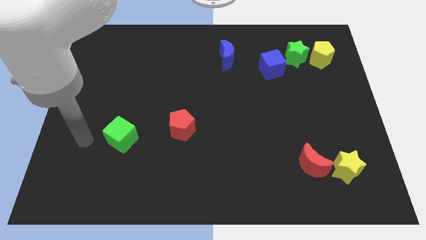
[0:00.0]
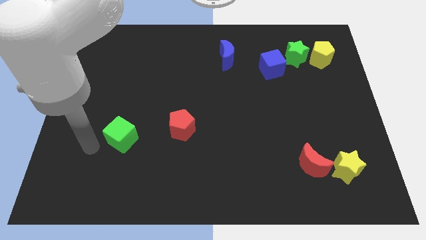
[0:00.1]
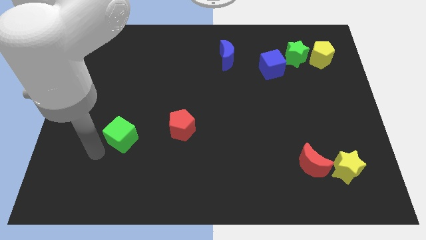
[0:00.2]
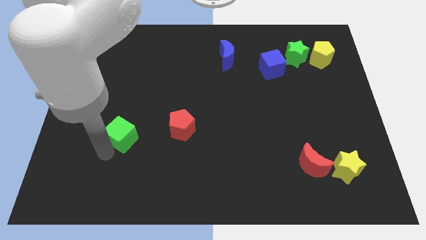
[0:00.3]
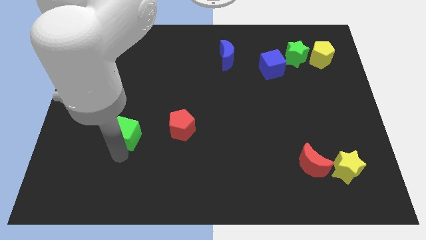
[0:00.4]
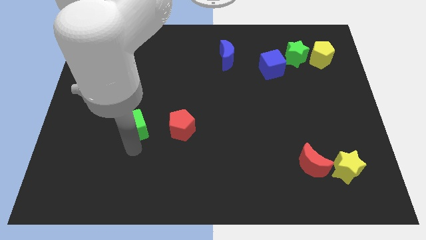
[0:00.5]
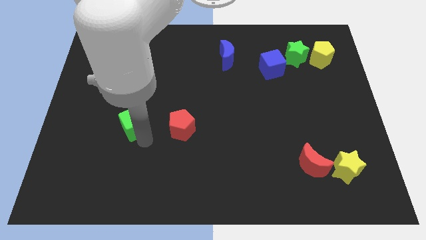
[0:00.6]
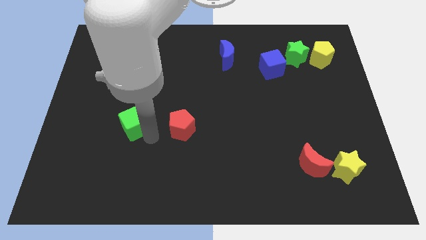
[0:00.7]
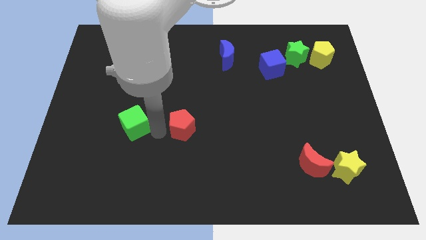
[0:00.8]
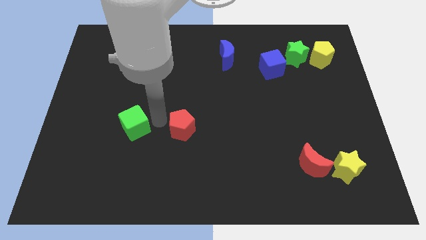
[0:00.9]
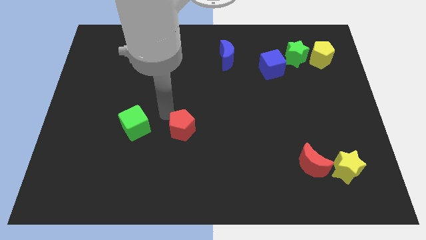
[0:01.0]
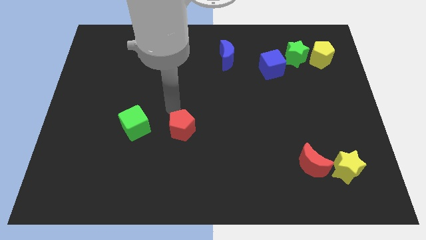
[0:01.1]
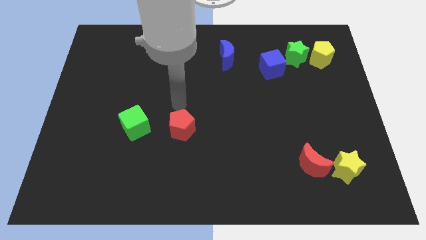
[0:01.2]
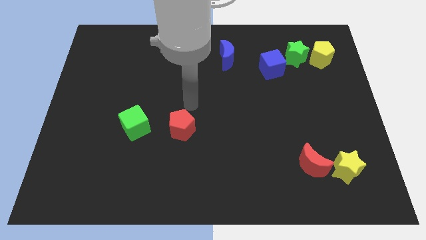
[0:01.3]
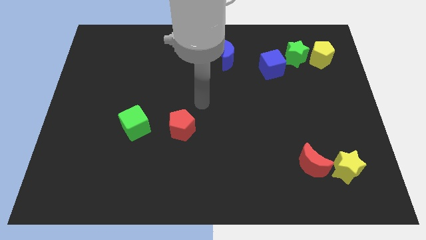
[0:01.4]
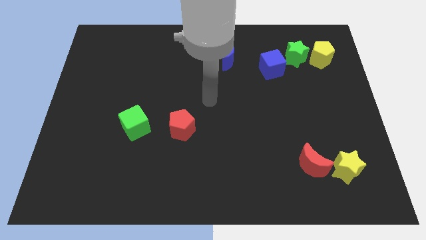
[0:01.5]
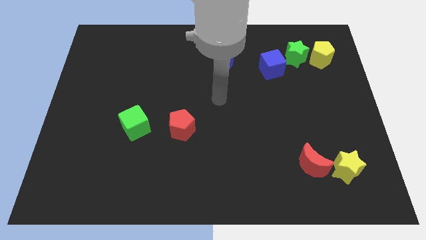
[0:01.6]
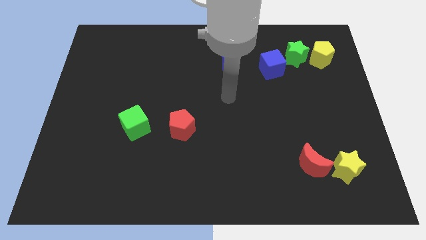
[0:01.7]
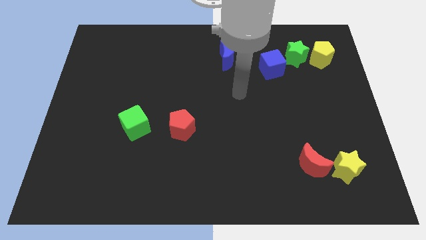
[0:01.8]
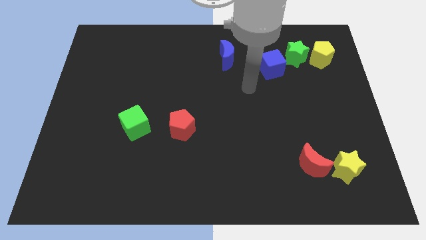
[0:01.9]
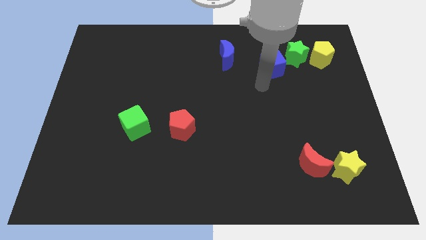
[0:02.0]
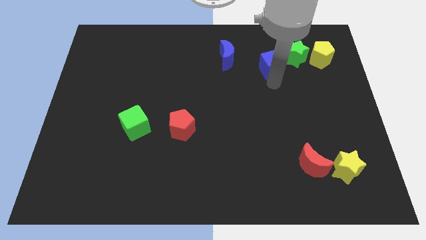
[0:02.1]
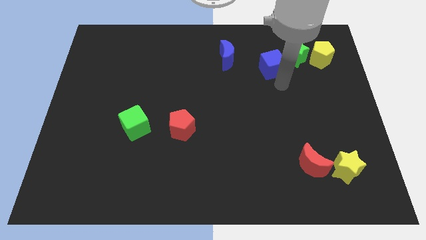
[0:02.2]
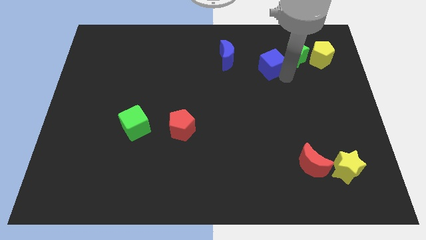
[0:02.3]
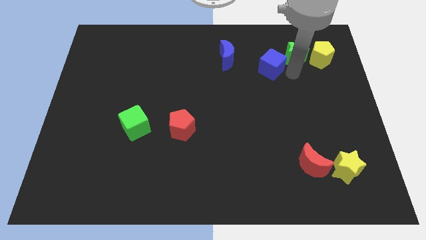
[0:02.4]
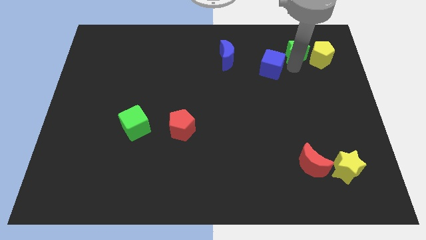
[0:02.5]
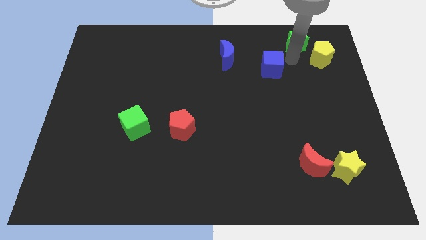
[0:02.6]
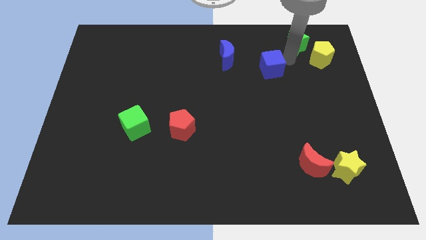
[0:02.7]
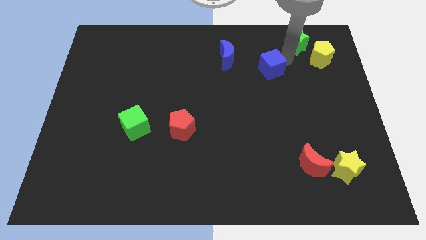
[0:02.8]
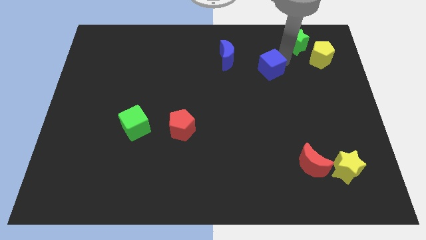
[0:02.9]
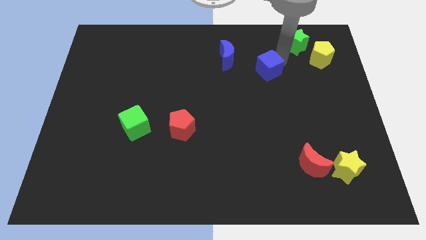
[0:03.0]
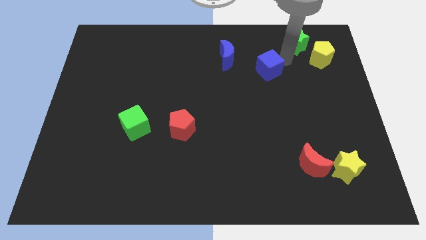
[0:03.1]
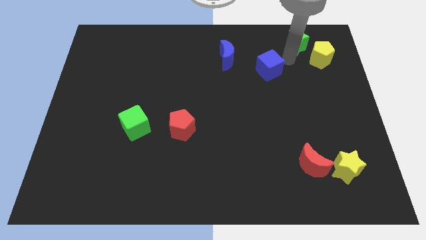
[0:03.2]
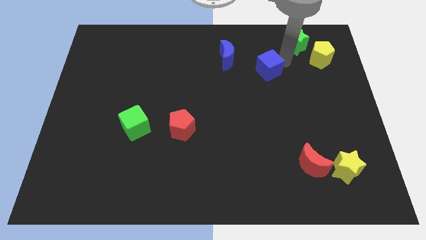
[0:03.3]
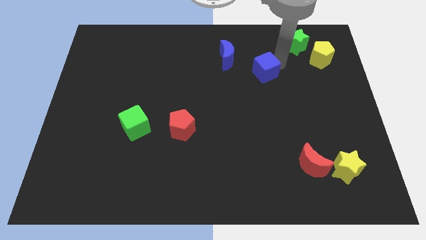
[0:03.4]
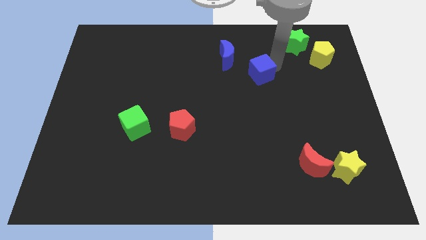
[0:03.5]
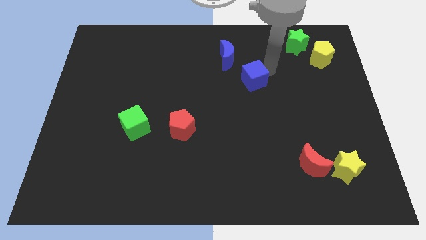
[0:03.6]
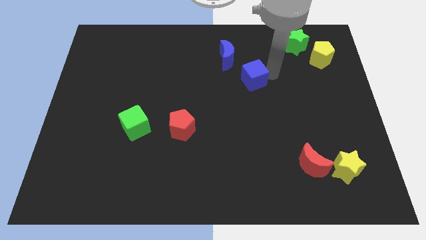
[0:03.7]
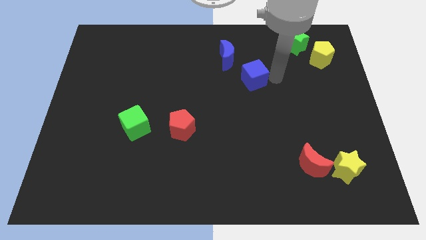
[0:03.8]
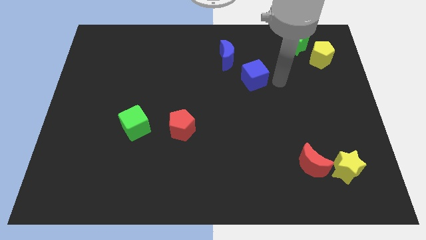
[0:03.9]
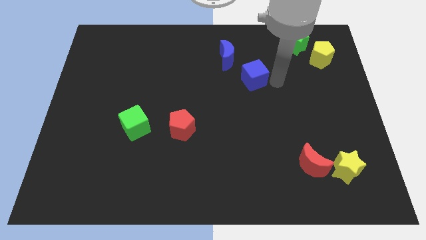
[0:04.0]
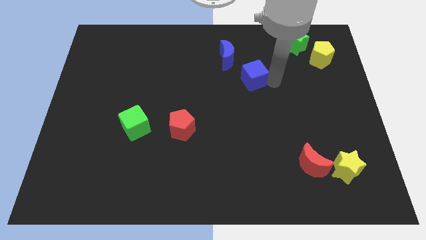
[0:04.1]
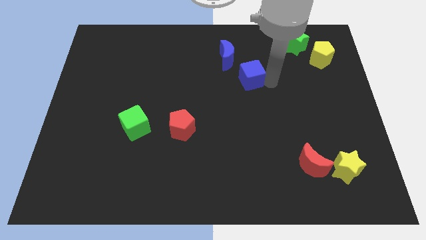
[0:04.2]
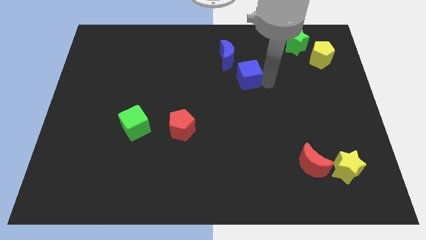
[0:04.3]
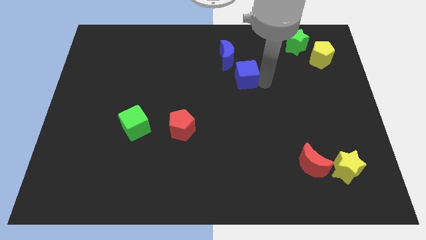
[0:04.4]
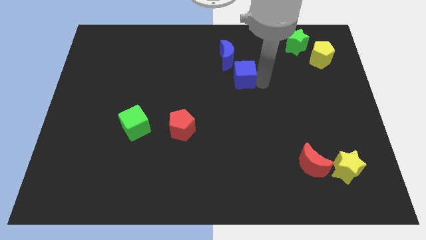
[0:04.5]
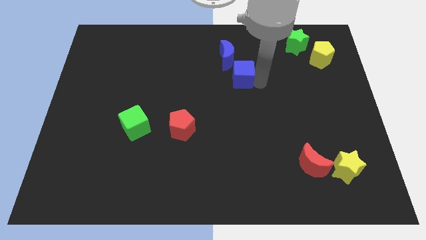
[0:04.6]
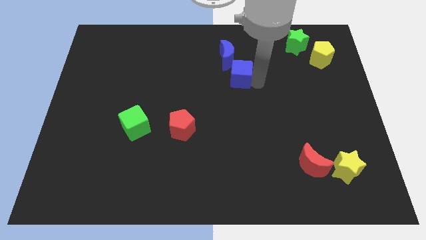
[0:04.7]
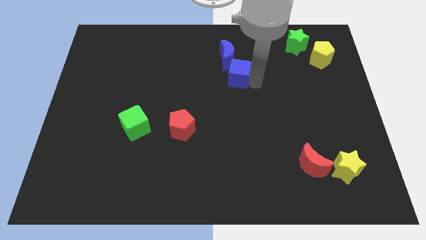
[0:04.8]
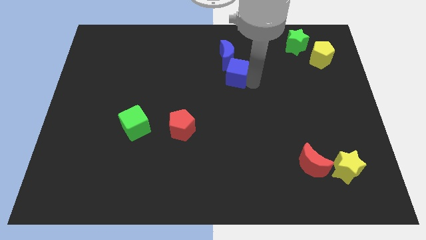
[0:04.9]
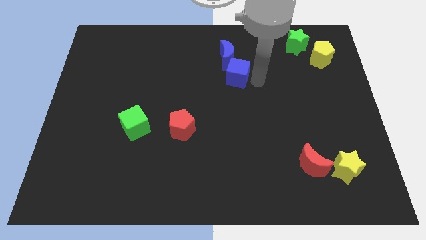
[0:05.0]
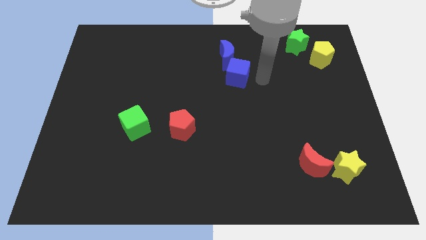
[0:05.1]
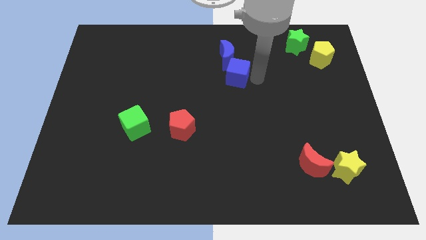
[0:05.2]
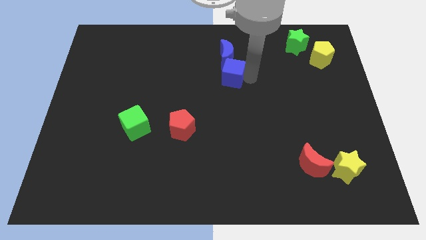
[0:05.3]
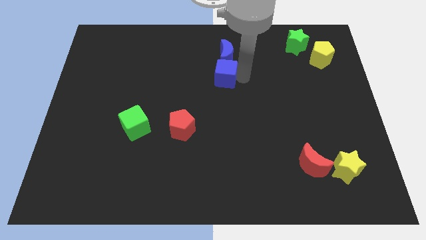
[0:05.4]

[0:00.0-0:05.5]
put the blue cube to the bottom left side of the blue moon

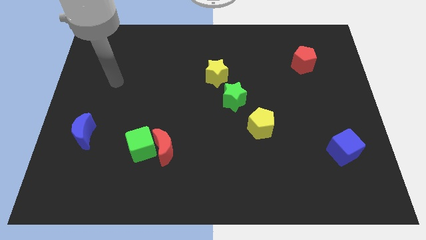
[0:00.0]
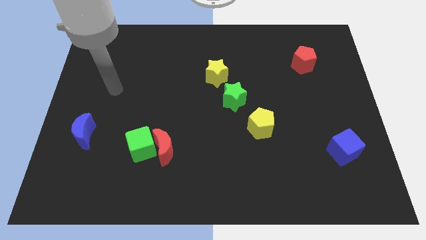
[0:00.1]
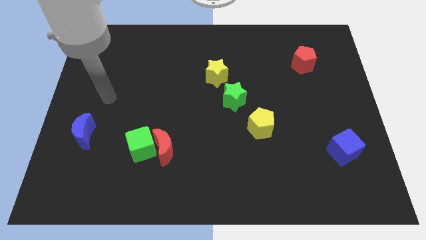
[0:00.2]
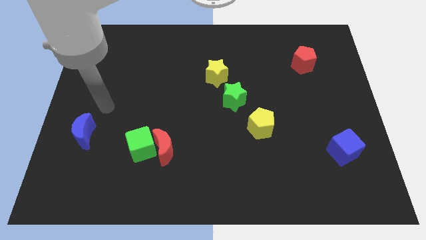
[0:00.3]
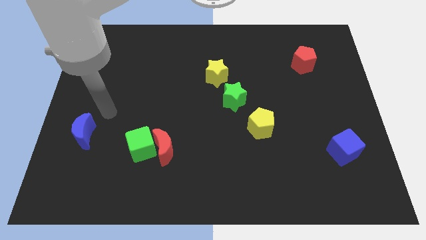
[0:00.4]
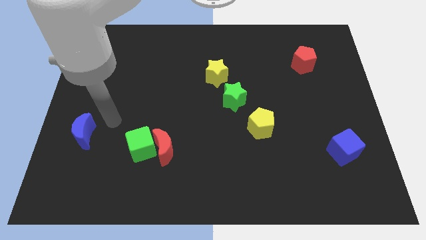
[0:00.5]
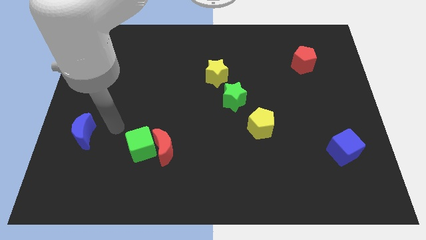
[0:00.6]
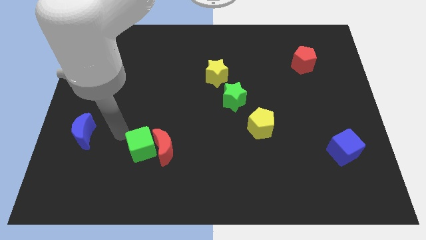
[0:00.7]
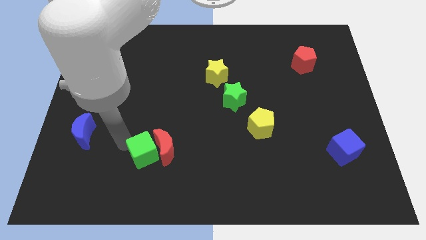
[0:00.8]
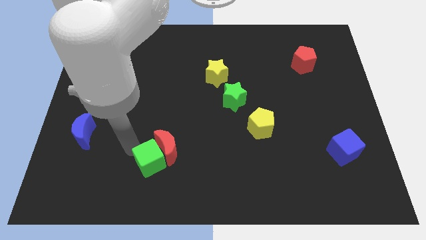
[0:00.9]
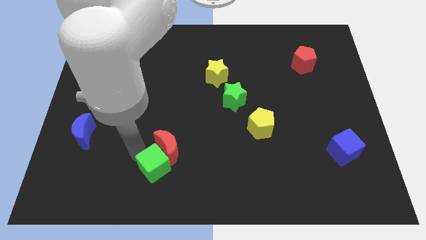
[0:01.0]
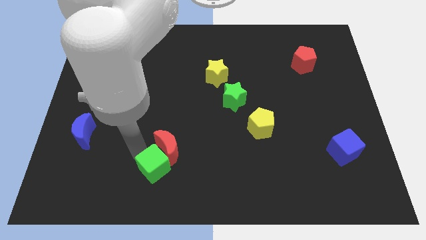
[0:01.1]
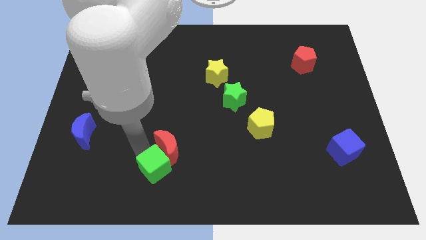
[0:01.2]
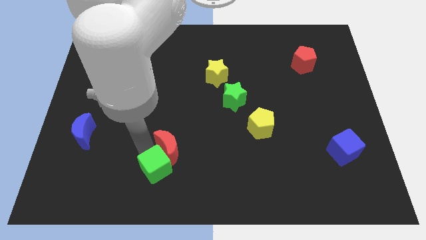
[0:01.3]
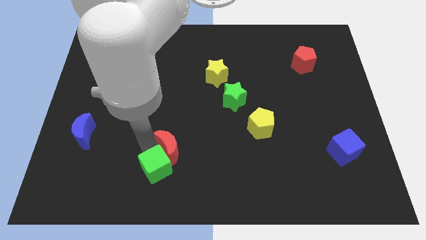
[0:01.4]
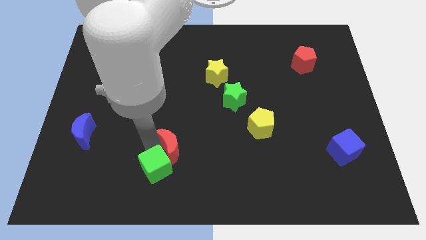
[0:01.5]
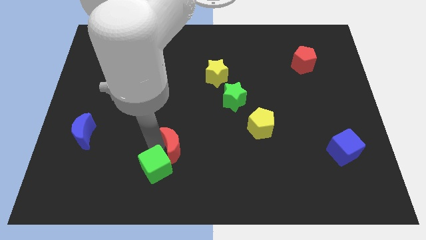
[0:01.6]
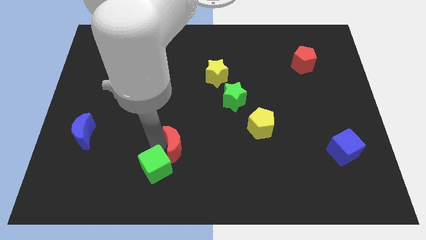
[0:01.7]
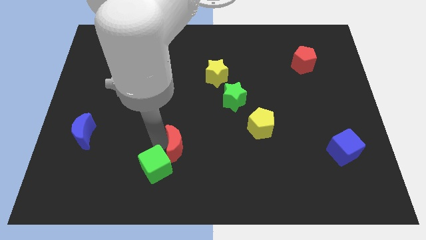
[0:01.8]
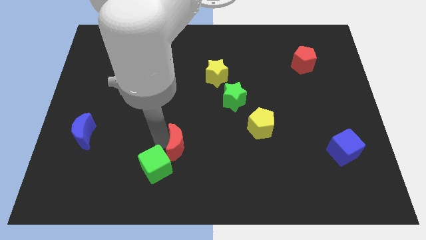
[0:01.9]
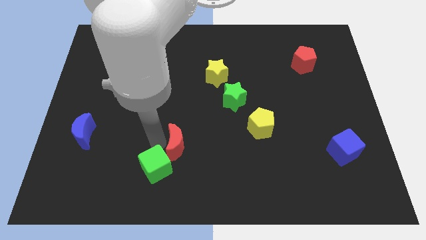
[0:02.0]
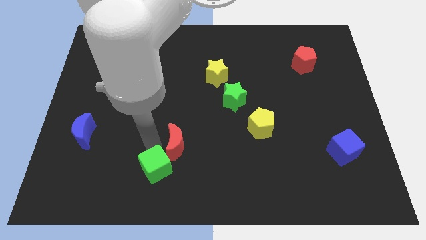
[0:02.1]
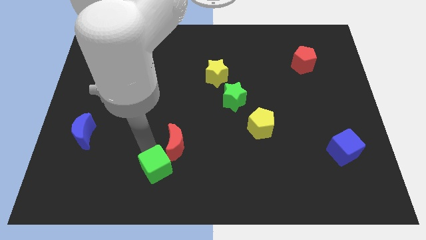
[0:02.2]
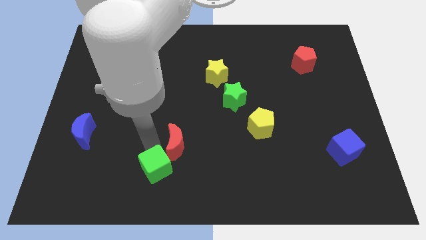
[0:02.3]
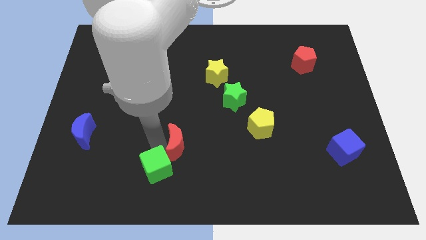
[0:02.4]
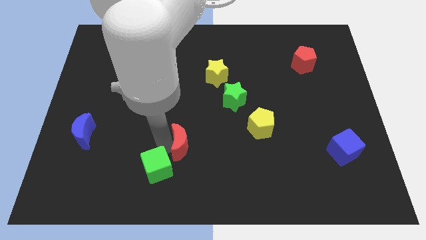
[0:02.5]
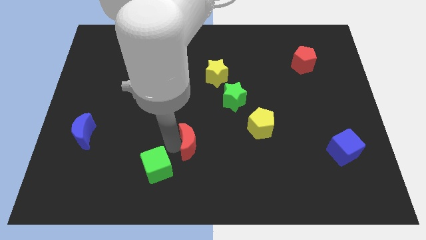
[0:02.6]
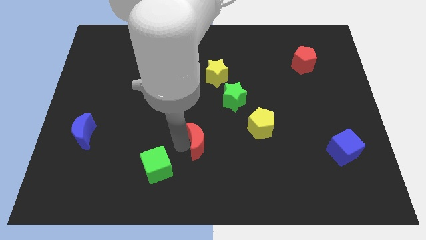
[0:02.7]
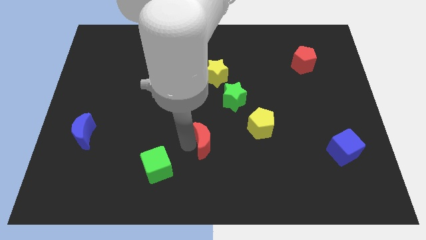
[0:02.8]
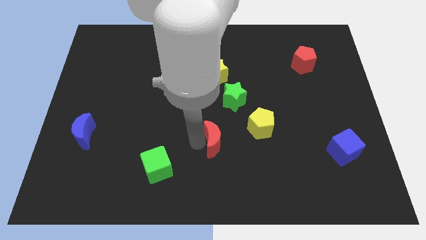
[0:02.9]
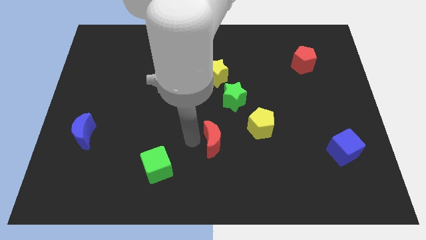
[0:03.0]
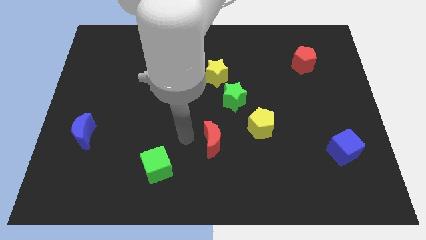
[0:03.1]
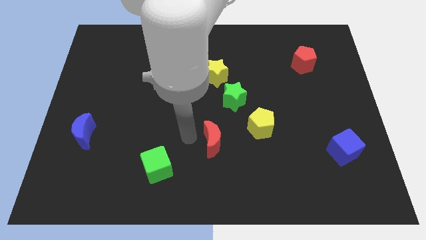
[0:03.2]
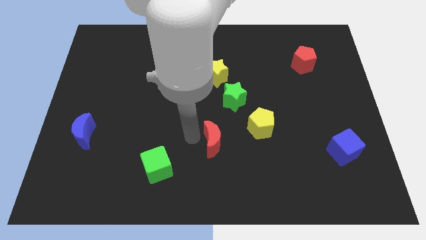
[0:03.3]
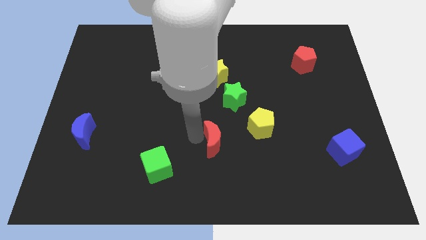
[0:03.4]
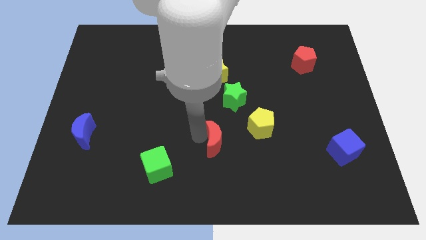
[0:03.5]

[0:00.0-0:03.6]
push the red moon to the bottom left side of the yellow pentagon
